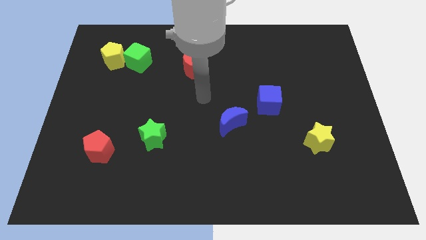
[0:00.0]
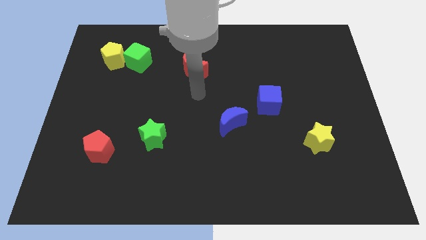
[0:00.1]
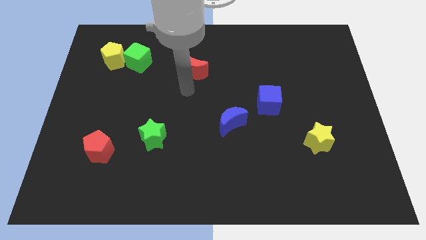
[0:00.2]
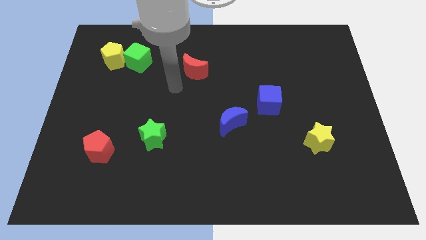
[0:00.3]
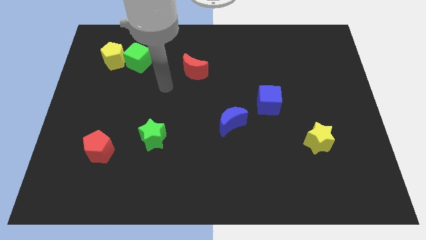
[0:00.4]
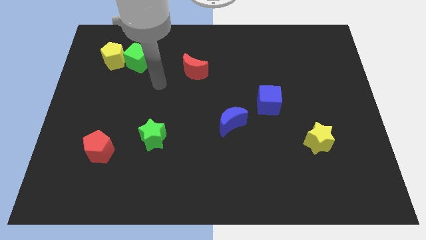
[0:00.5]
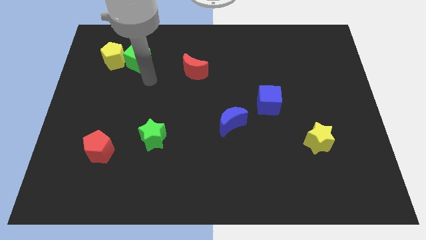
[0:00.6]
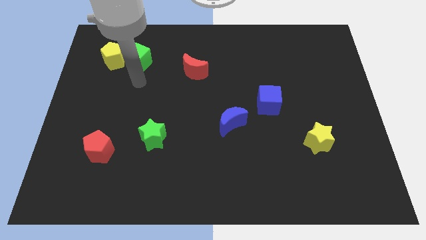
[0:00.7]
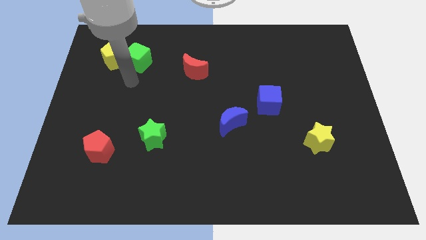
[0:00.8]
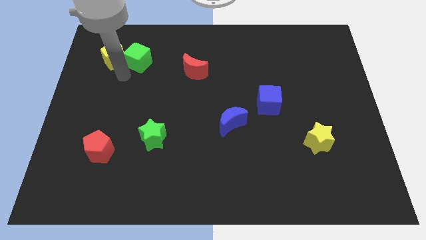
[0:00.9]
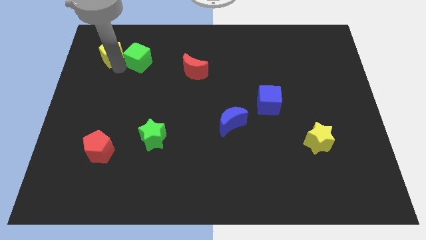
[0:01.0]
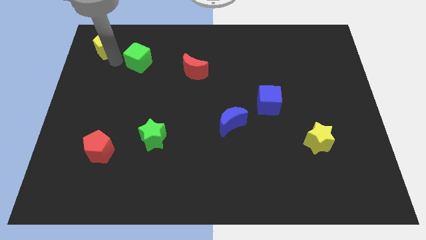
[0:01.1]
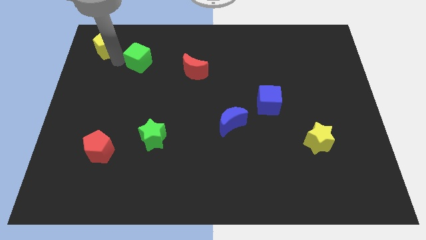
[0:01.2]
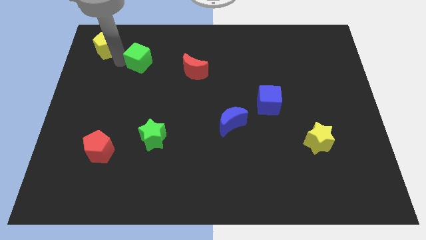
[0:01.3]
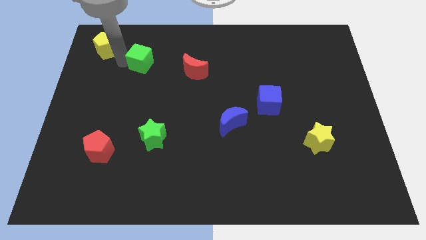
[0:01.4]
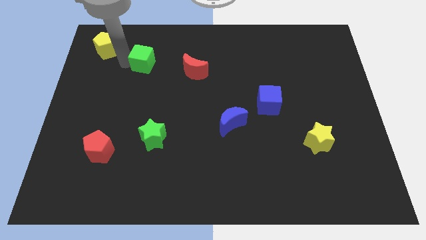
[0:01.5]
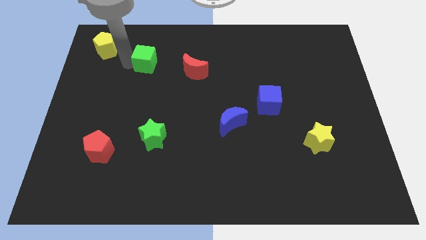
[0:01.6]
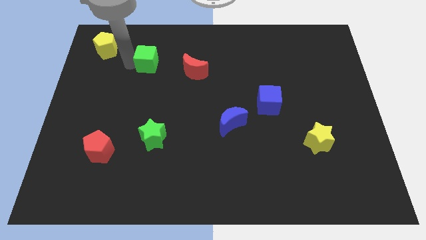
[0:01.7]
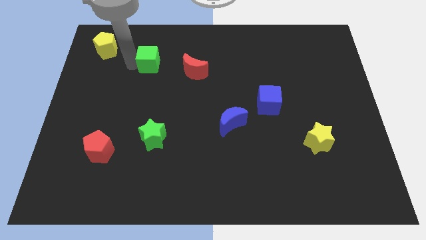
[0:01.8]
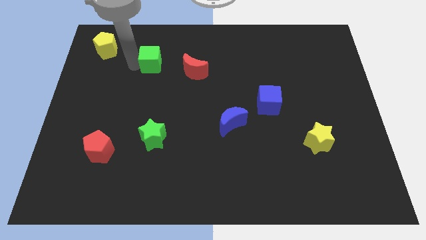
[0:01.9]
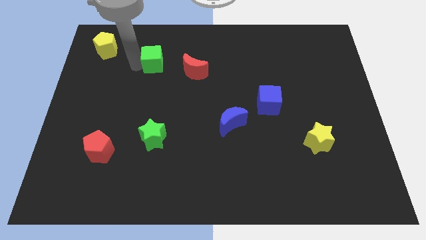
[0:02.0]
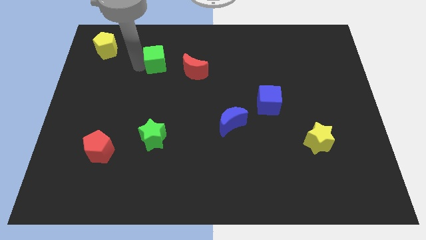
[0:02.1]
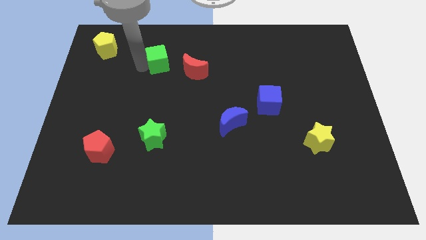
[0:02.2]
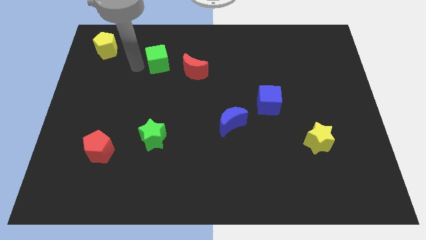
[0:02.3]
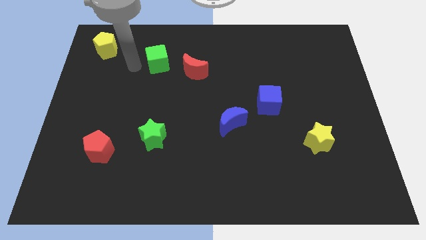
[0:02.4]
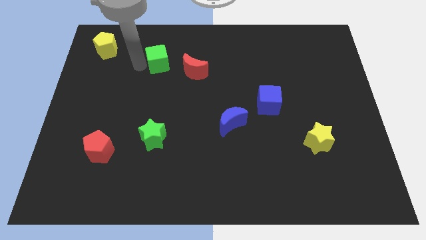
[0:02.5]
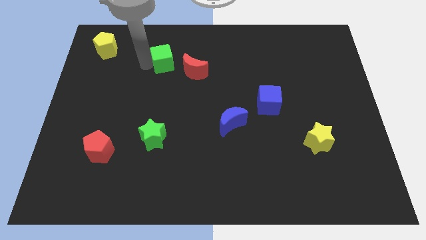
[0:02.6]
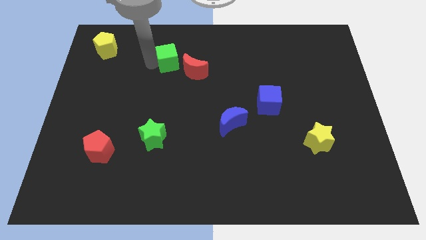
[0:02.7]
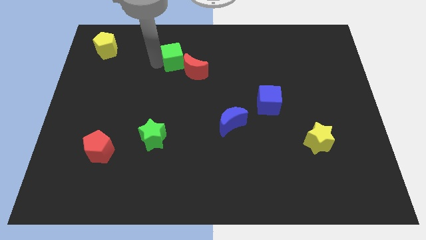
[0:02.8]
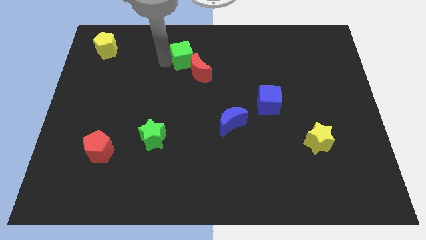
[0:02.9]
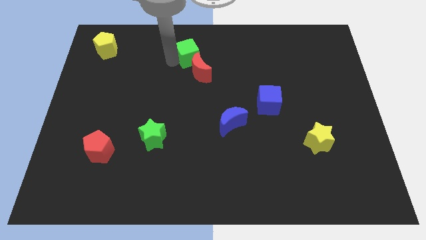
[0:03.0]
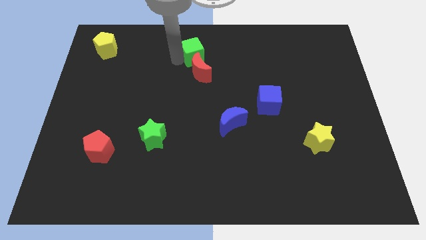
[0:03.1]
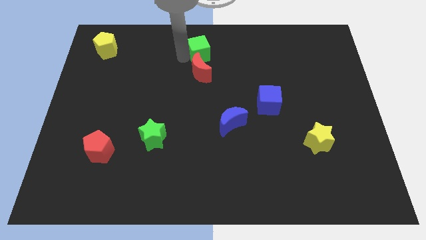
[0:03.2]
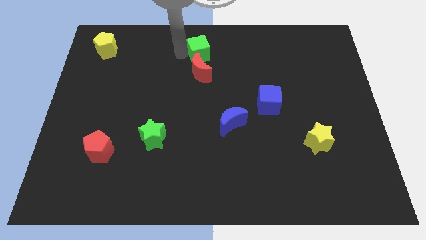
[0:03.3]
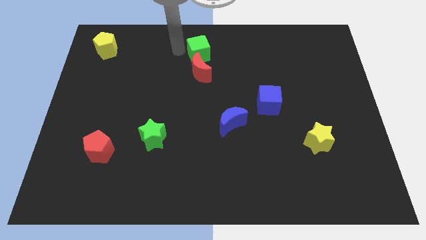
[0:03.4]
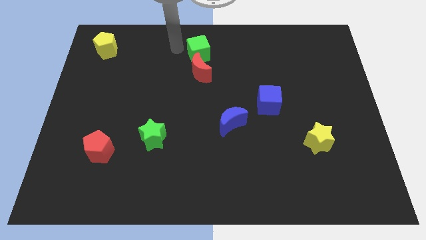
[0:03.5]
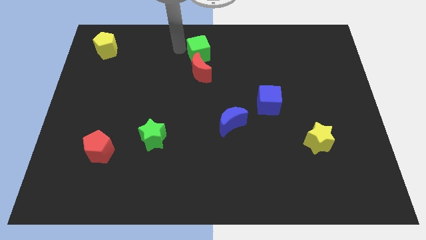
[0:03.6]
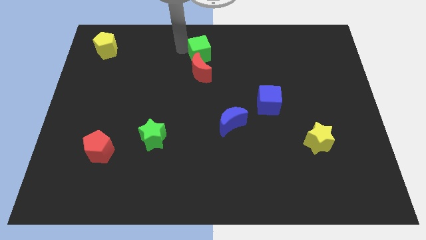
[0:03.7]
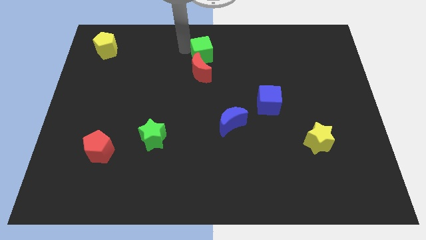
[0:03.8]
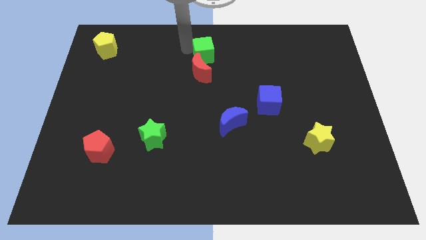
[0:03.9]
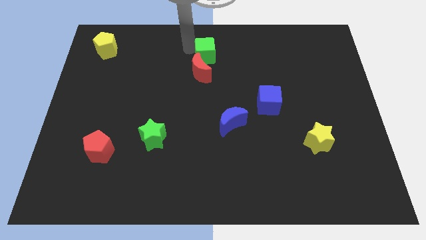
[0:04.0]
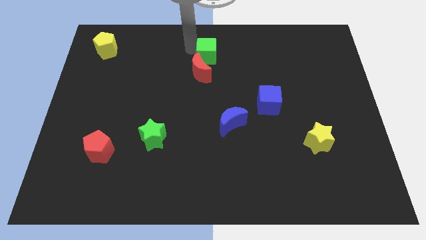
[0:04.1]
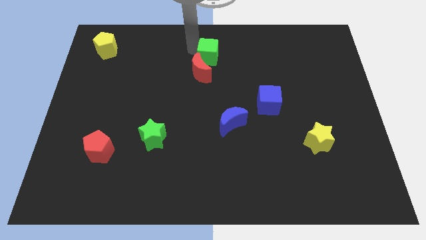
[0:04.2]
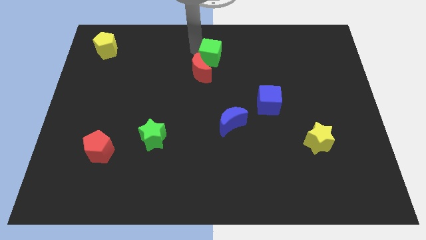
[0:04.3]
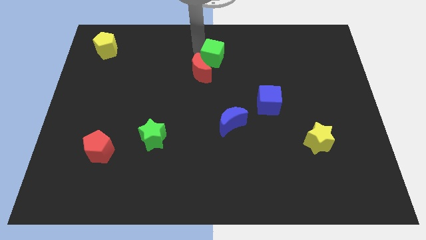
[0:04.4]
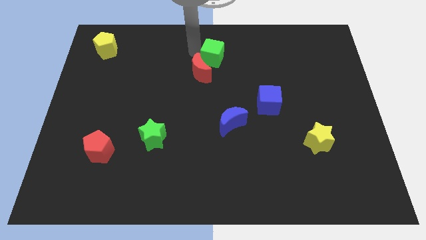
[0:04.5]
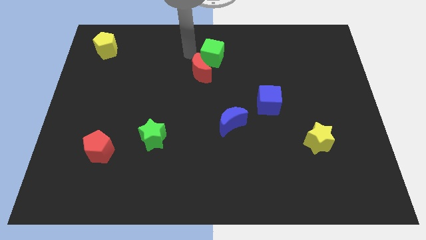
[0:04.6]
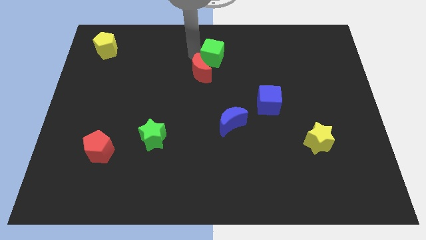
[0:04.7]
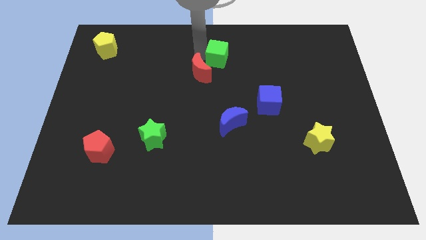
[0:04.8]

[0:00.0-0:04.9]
slide the green cube right

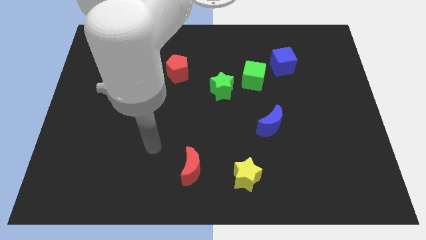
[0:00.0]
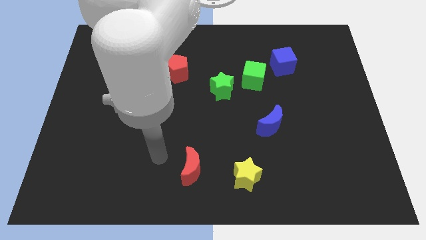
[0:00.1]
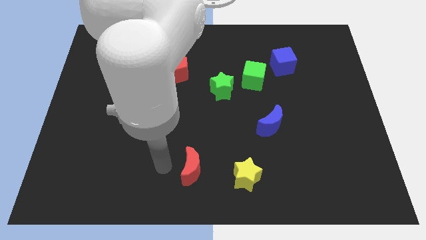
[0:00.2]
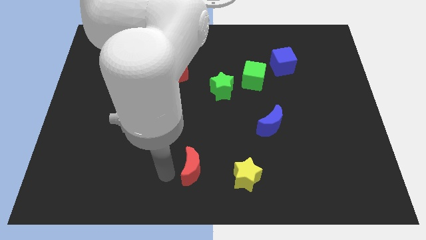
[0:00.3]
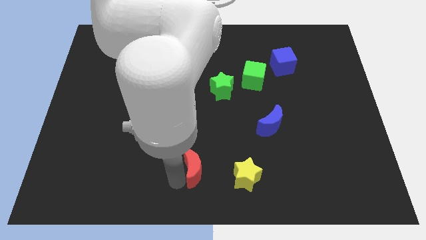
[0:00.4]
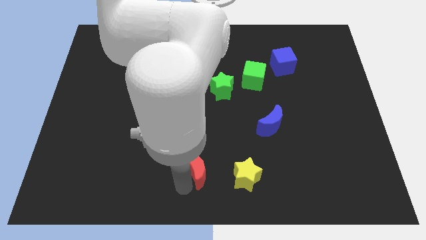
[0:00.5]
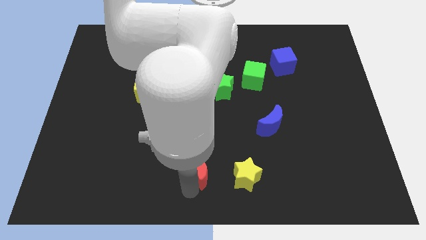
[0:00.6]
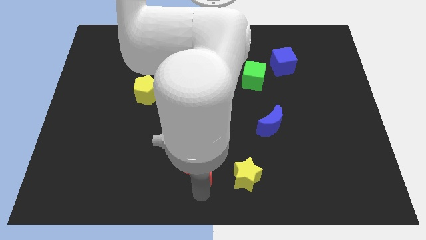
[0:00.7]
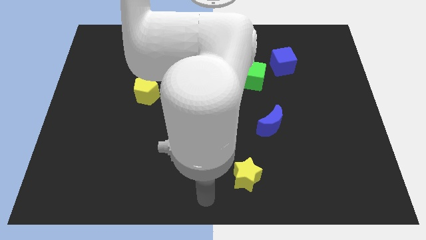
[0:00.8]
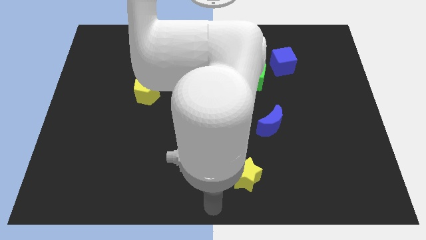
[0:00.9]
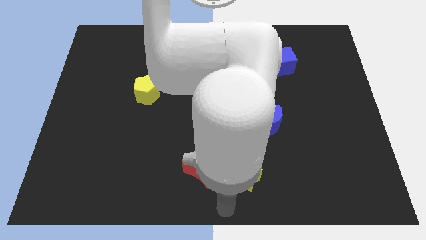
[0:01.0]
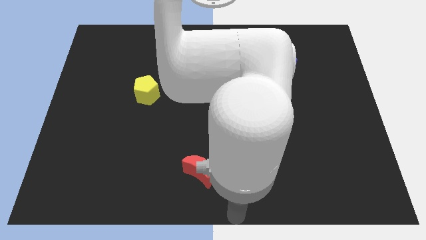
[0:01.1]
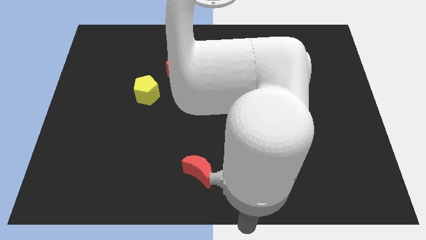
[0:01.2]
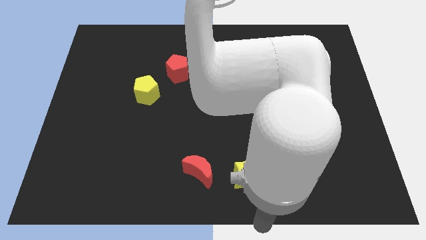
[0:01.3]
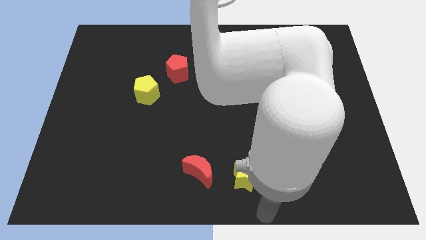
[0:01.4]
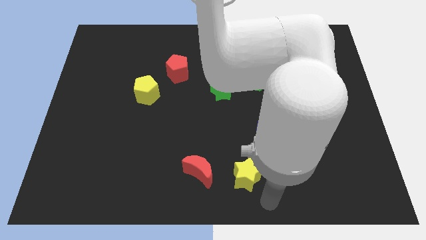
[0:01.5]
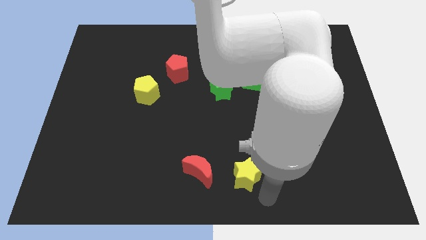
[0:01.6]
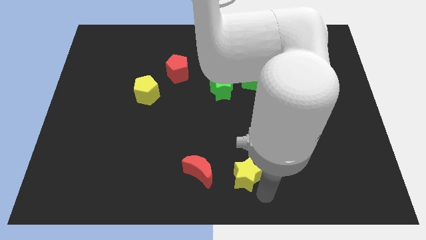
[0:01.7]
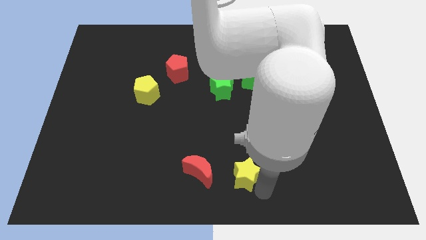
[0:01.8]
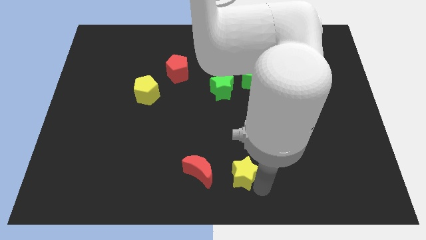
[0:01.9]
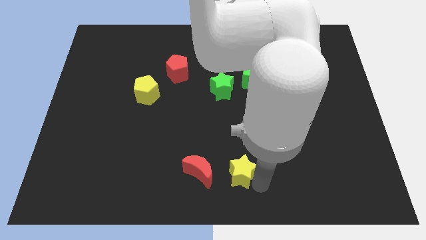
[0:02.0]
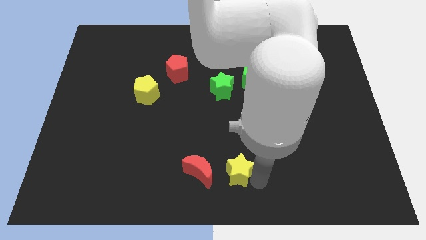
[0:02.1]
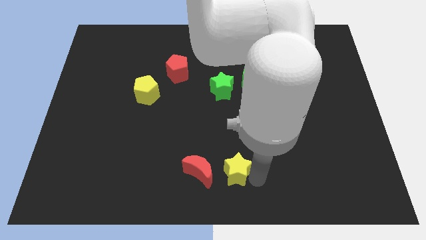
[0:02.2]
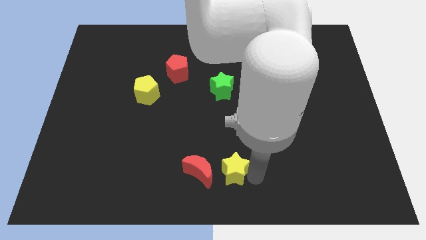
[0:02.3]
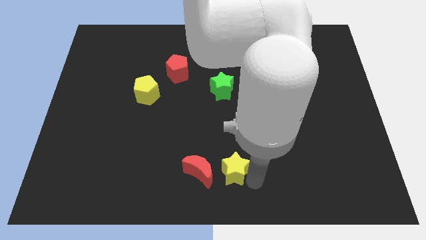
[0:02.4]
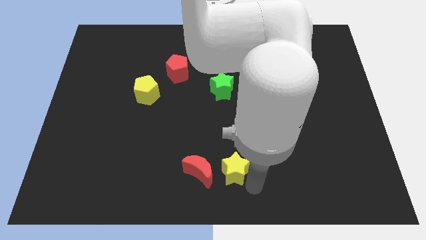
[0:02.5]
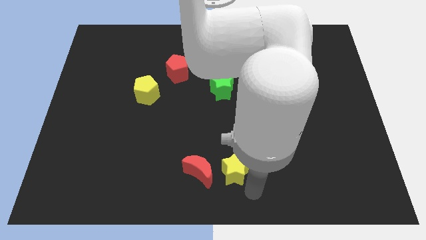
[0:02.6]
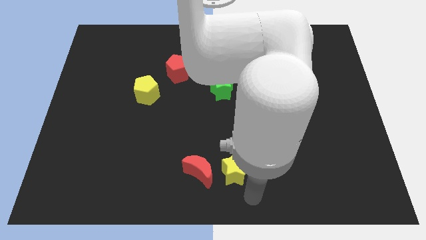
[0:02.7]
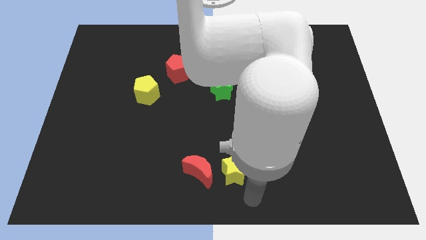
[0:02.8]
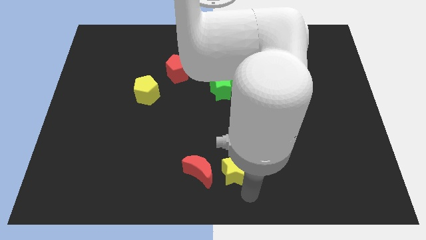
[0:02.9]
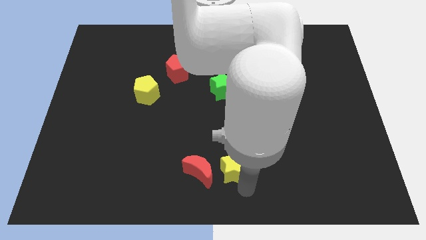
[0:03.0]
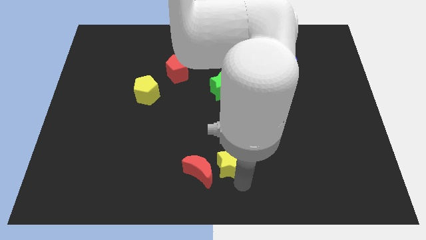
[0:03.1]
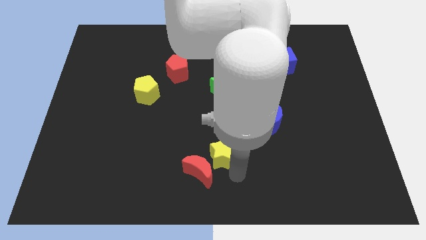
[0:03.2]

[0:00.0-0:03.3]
slightly move the yellow star upwards and then left
